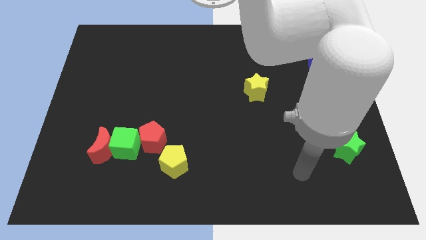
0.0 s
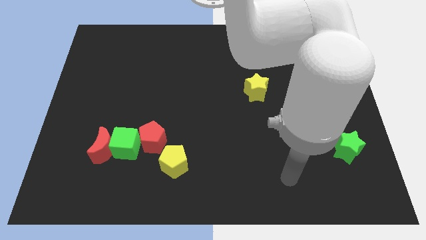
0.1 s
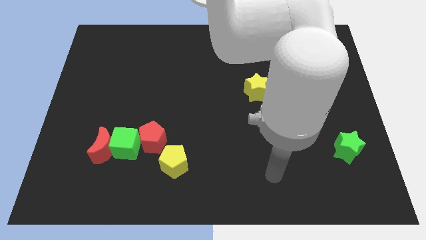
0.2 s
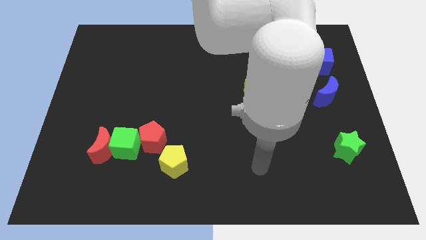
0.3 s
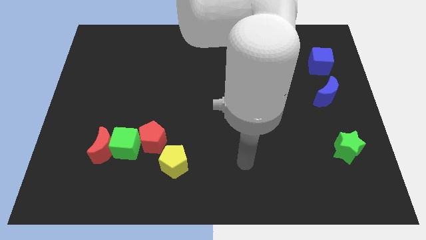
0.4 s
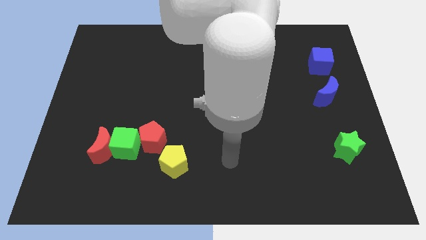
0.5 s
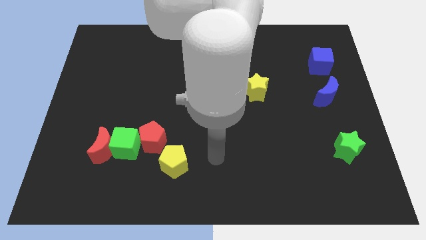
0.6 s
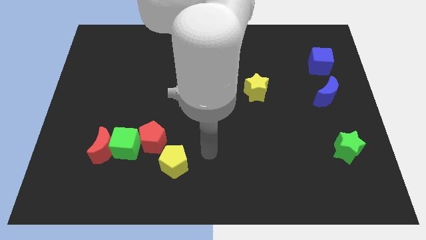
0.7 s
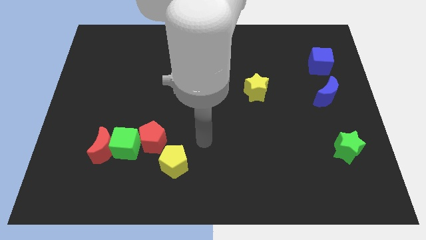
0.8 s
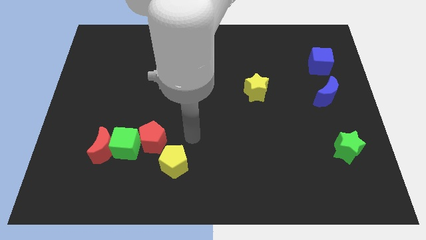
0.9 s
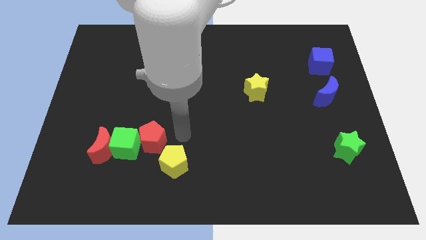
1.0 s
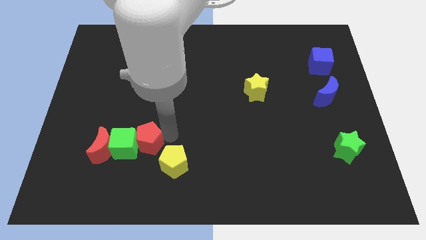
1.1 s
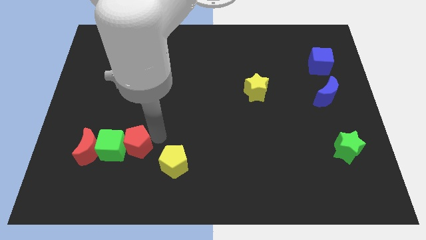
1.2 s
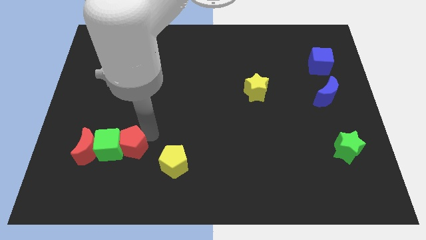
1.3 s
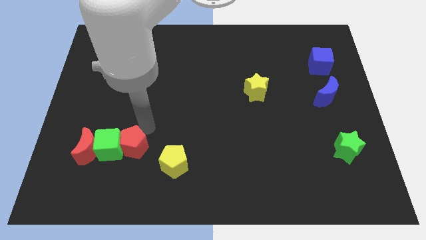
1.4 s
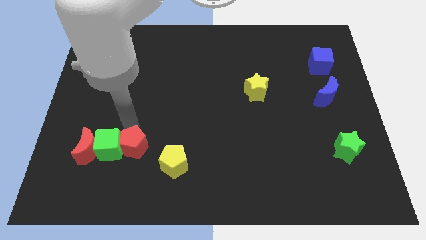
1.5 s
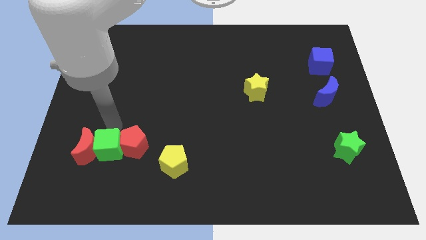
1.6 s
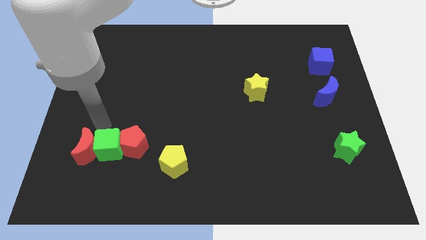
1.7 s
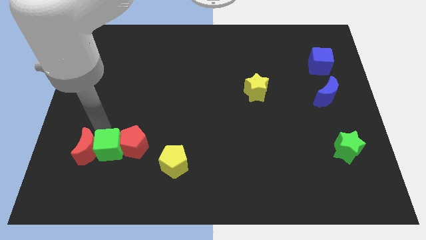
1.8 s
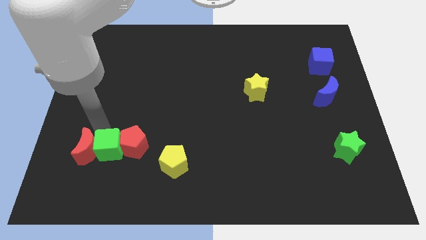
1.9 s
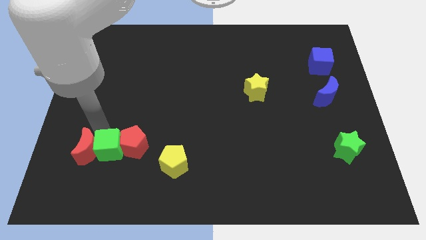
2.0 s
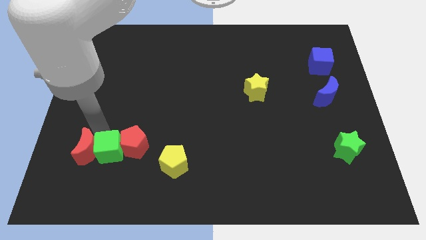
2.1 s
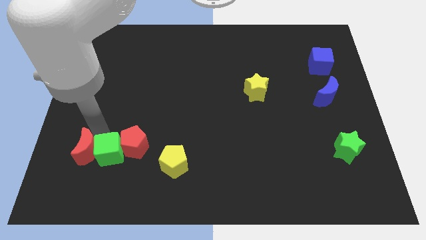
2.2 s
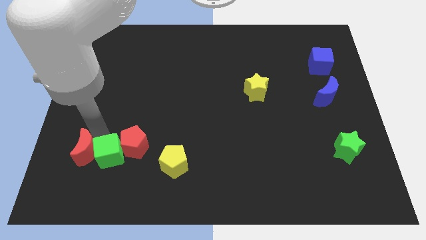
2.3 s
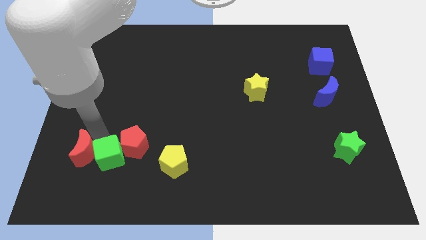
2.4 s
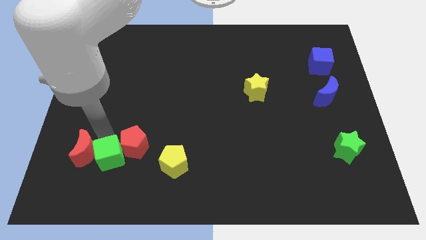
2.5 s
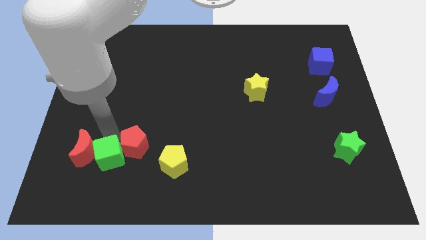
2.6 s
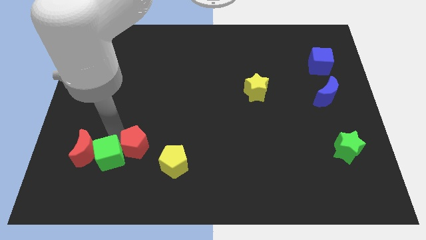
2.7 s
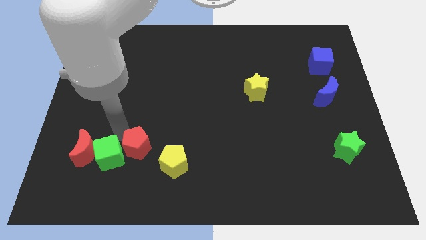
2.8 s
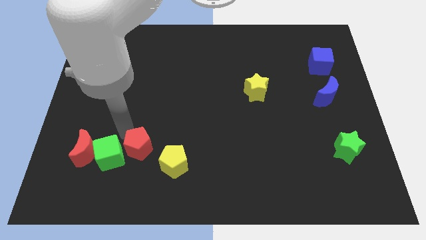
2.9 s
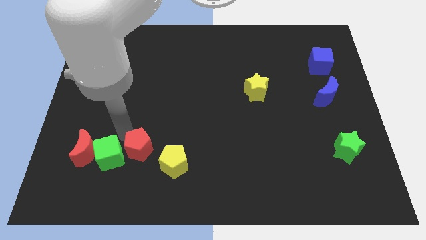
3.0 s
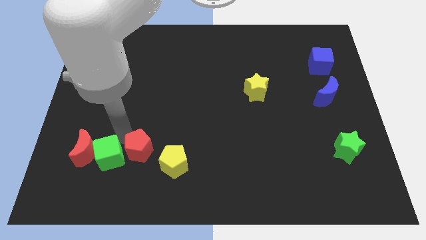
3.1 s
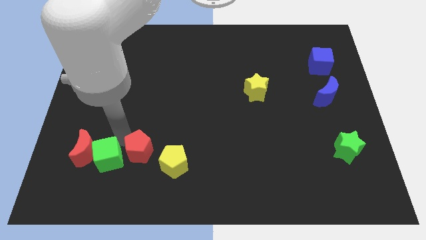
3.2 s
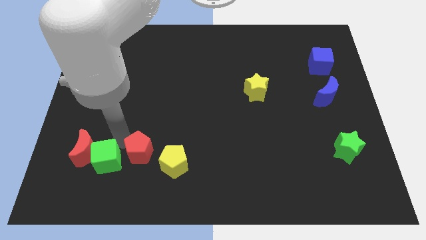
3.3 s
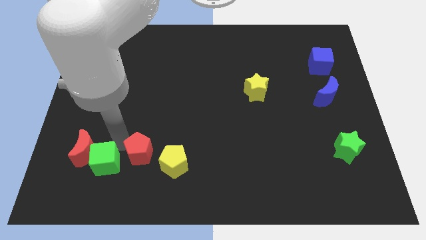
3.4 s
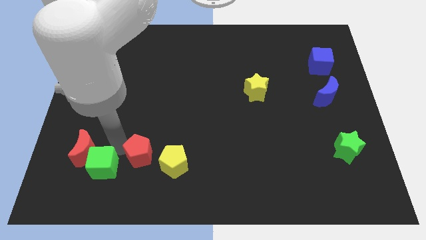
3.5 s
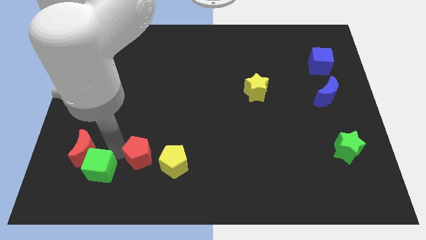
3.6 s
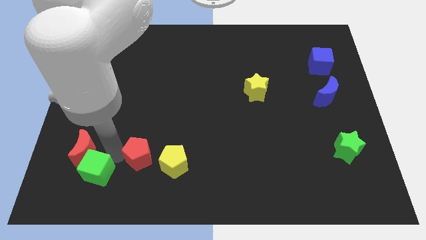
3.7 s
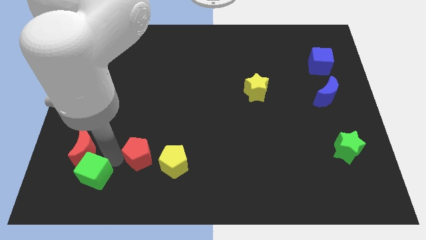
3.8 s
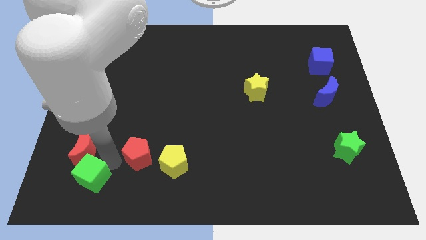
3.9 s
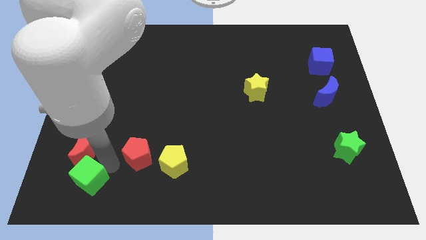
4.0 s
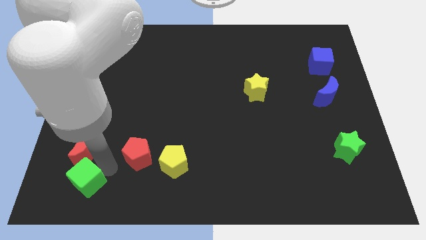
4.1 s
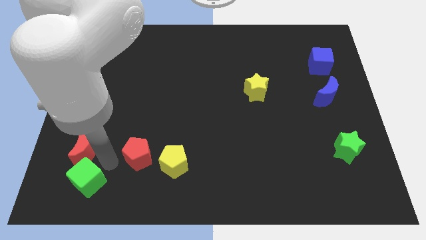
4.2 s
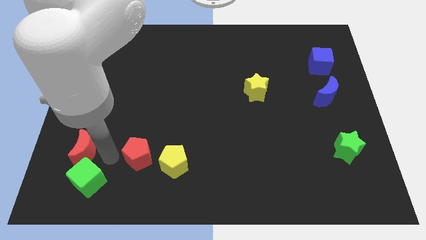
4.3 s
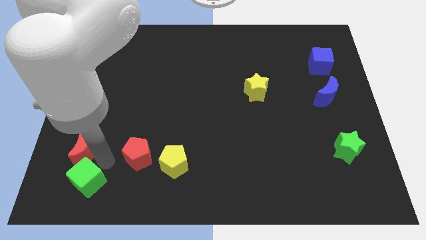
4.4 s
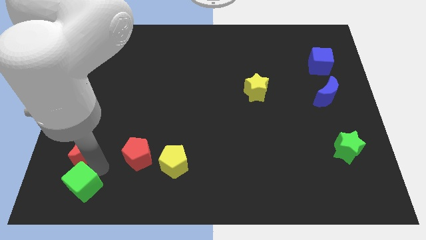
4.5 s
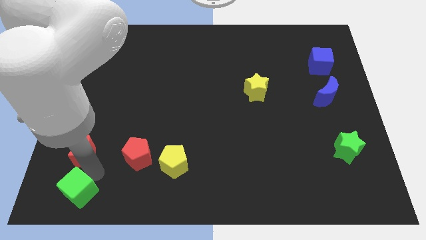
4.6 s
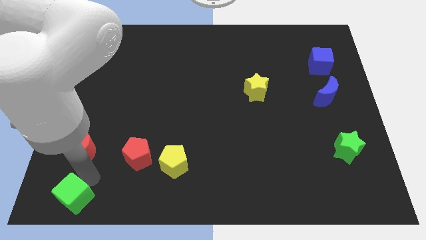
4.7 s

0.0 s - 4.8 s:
pull the green cube apart from the red moon and red pentagon

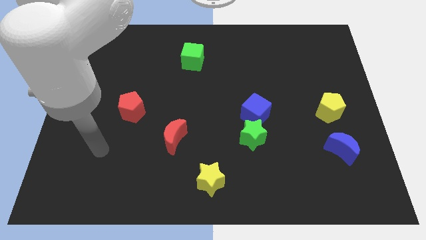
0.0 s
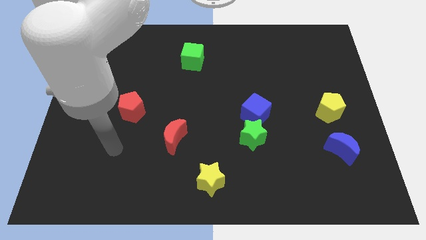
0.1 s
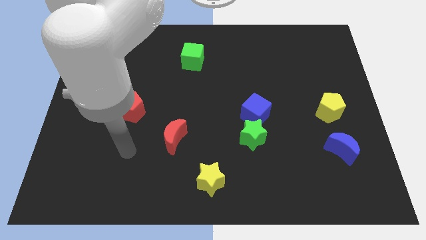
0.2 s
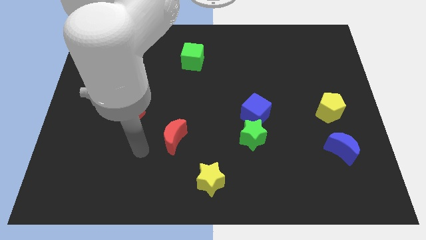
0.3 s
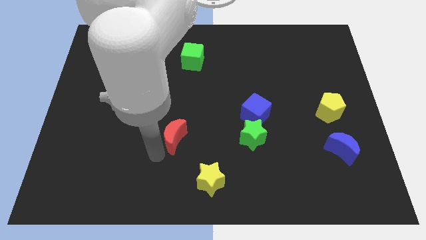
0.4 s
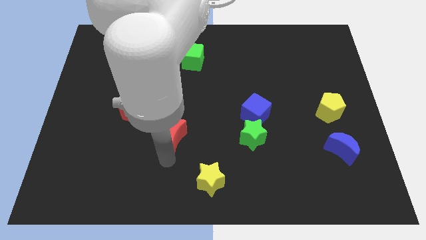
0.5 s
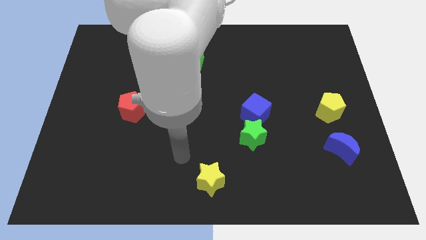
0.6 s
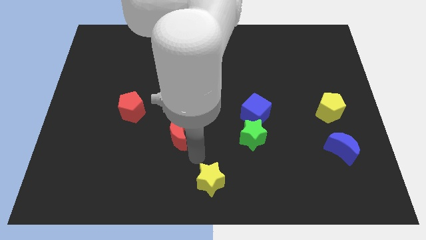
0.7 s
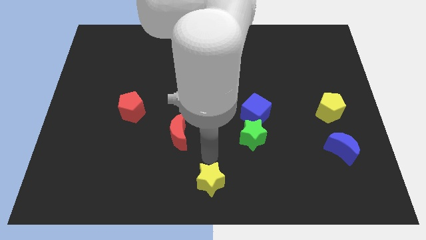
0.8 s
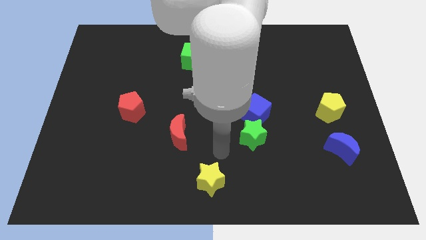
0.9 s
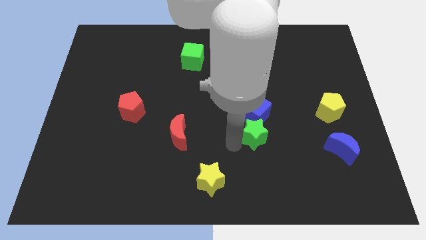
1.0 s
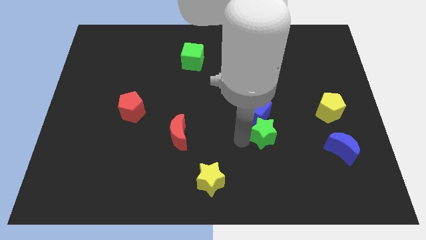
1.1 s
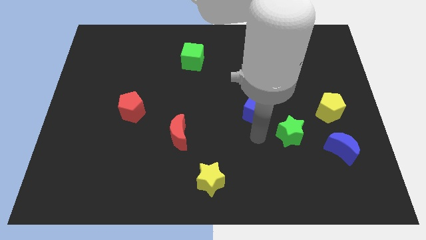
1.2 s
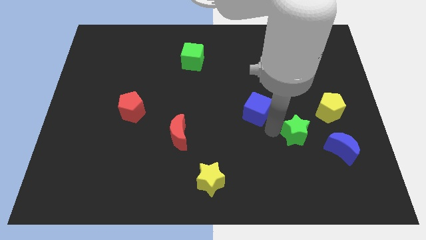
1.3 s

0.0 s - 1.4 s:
move the blue cube away from the green star

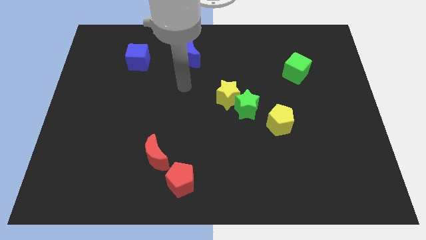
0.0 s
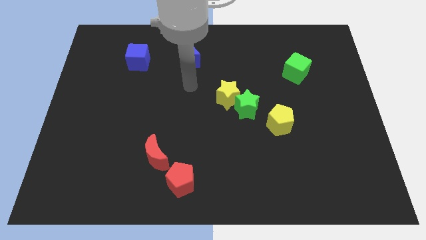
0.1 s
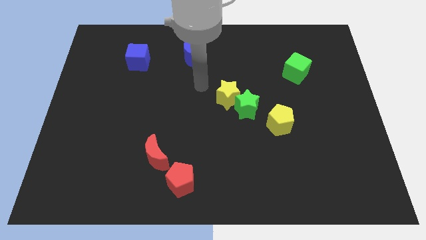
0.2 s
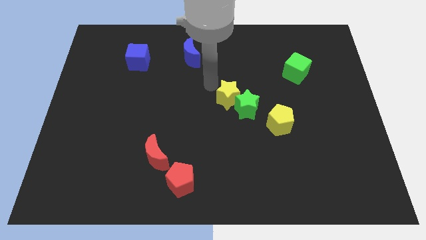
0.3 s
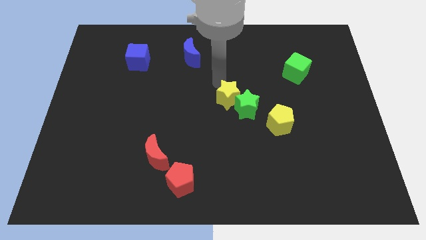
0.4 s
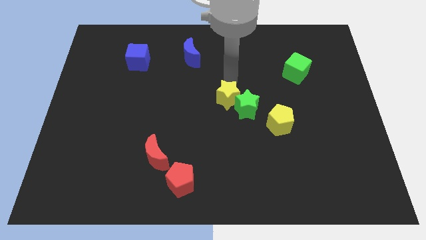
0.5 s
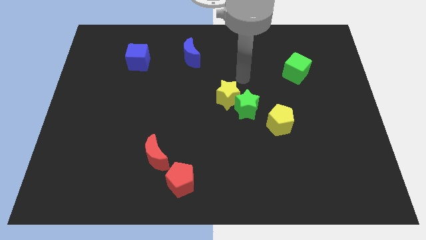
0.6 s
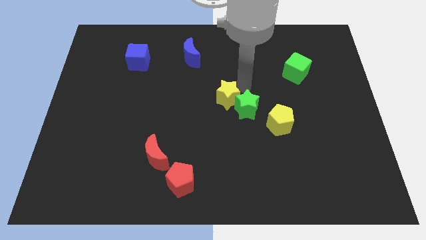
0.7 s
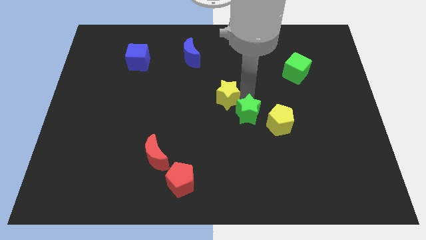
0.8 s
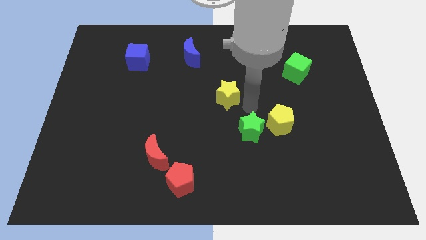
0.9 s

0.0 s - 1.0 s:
pull the yellow star apart from the green star

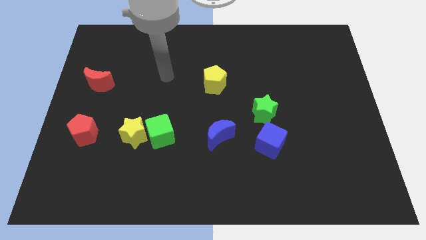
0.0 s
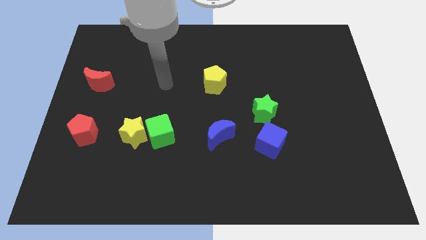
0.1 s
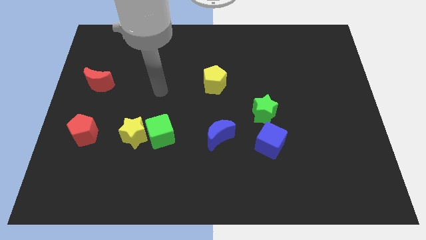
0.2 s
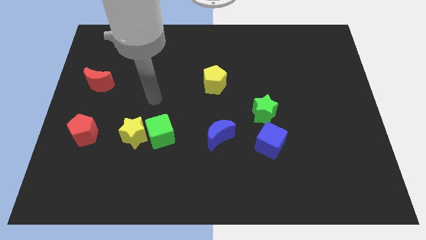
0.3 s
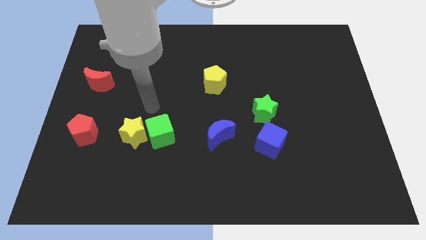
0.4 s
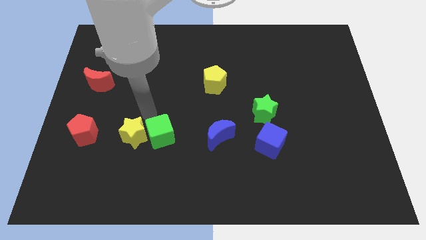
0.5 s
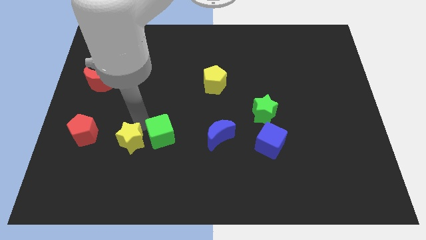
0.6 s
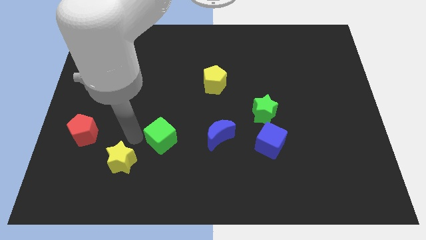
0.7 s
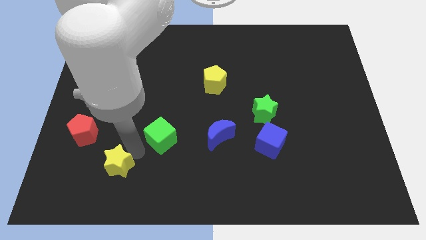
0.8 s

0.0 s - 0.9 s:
separate the green cube from the yellow star

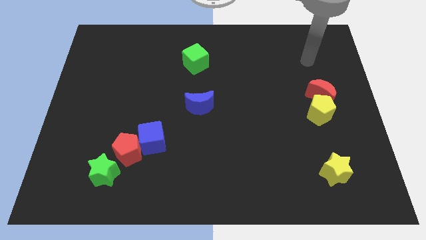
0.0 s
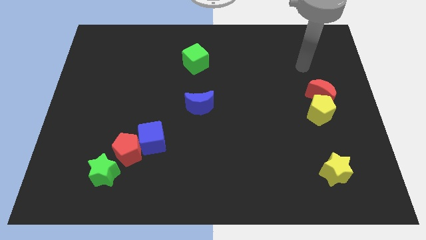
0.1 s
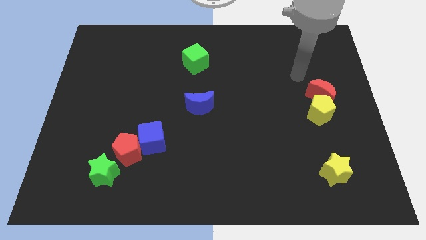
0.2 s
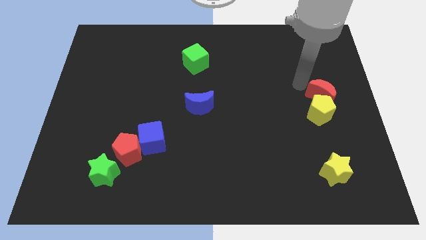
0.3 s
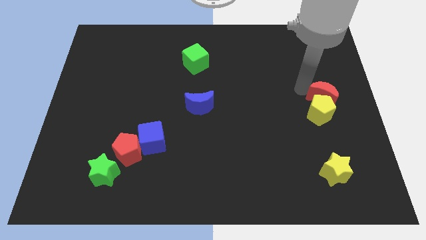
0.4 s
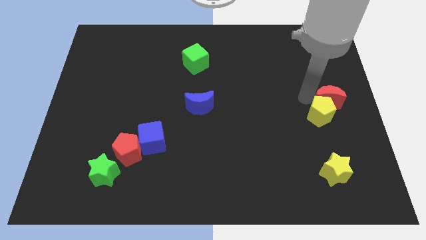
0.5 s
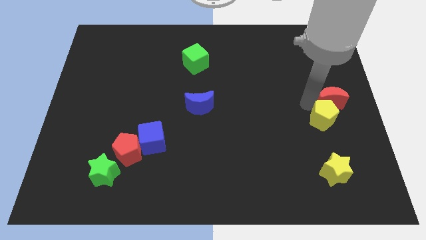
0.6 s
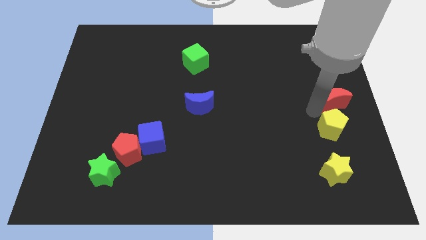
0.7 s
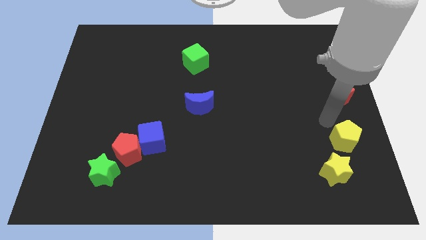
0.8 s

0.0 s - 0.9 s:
separate the red moon from the yellow pentagon

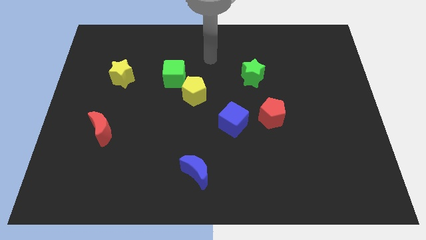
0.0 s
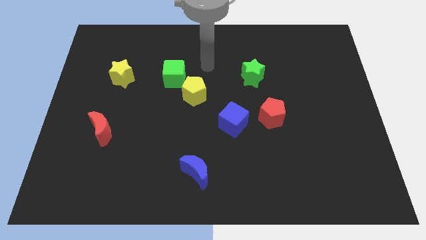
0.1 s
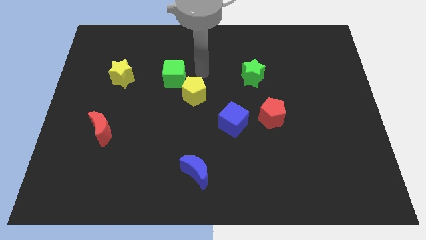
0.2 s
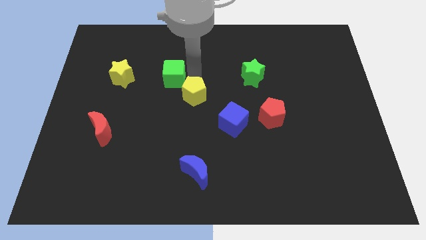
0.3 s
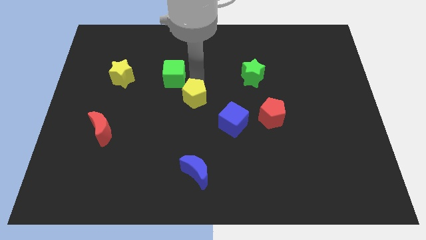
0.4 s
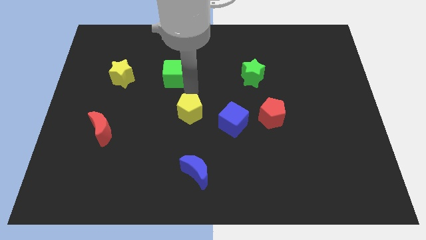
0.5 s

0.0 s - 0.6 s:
separate the green cube from the yellow pentagon
